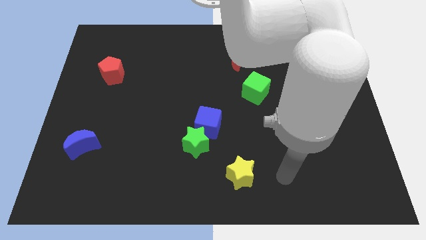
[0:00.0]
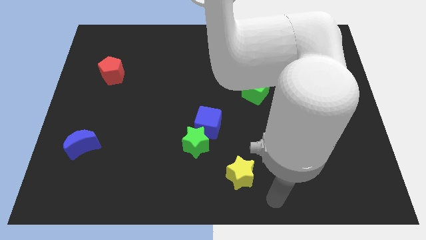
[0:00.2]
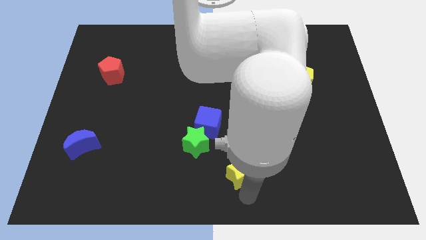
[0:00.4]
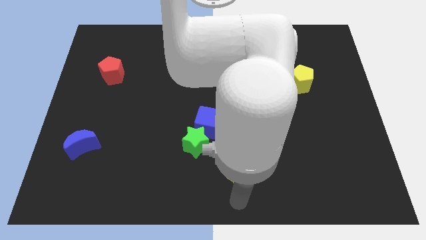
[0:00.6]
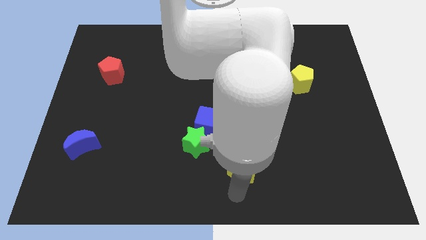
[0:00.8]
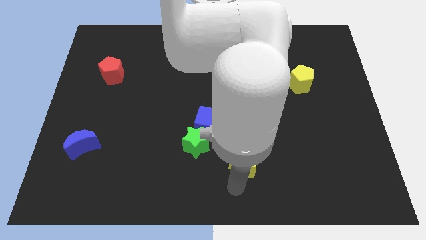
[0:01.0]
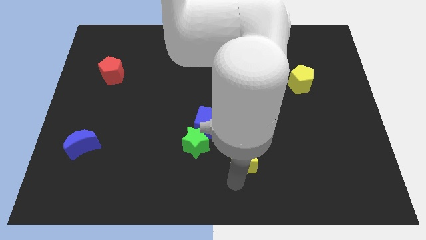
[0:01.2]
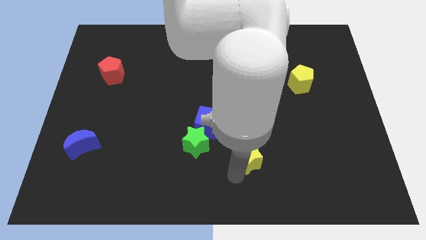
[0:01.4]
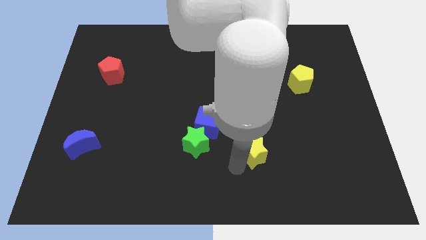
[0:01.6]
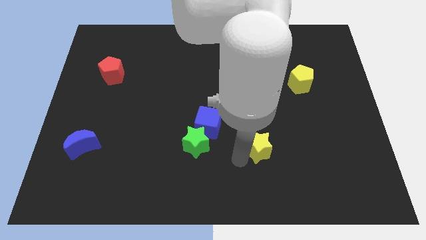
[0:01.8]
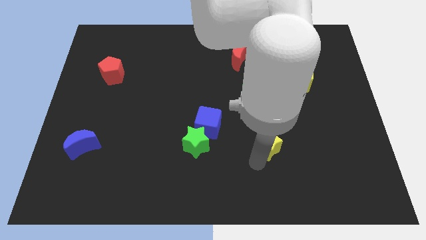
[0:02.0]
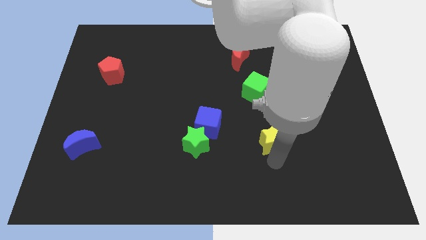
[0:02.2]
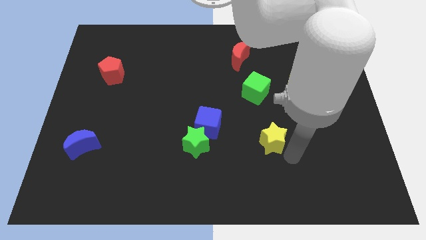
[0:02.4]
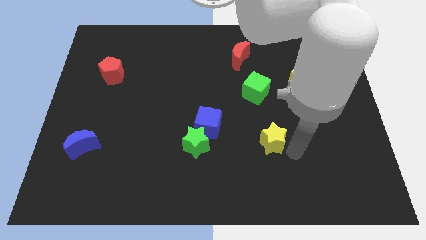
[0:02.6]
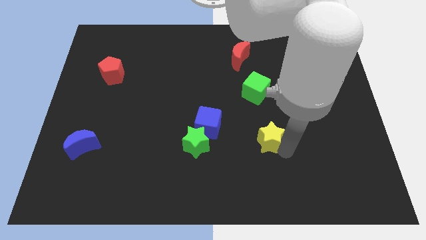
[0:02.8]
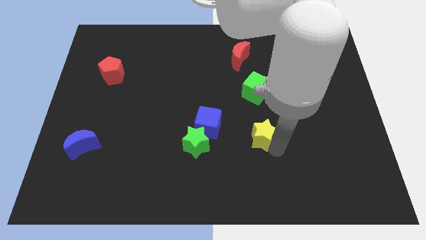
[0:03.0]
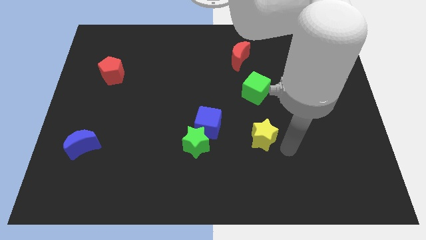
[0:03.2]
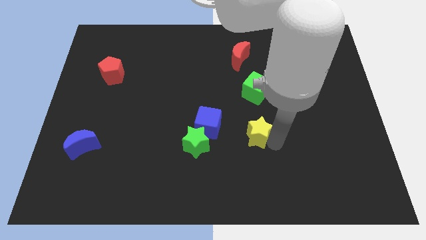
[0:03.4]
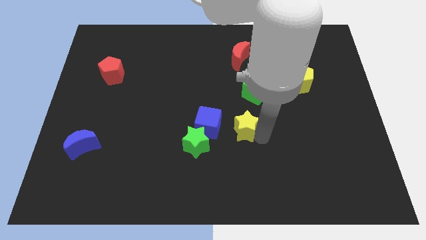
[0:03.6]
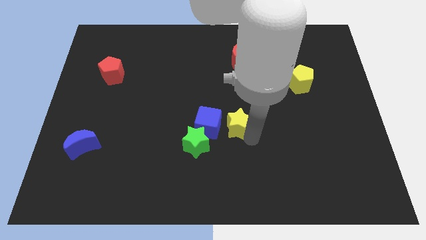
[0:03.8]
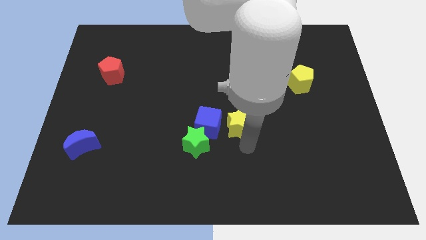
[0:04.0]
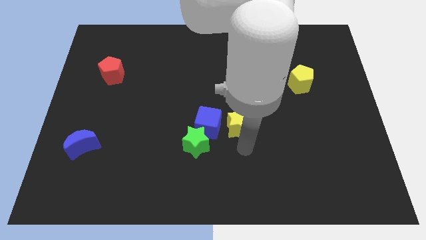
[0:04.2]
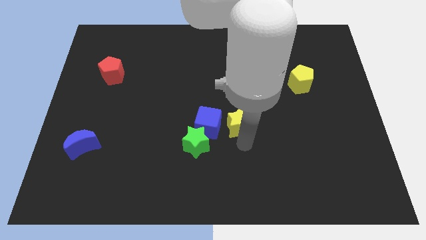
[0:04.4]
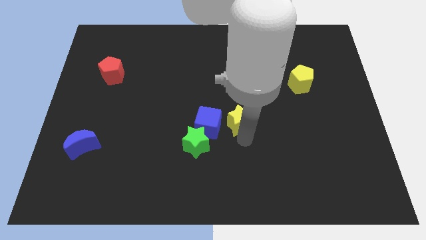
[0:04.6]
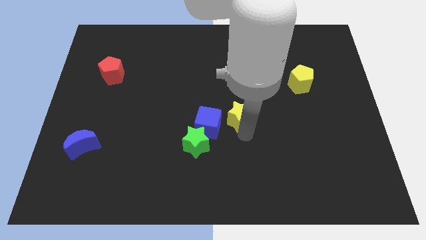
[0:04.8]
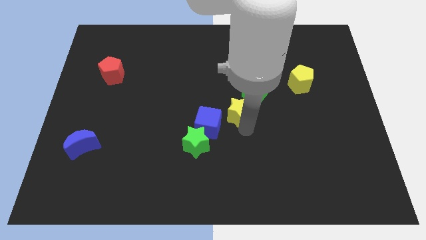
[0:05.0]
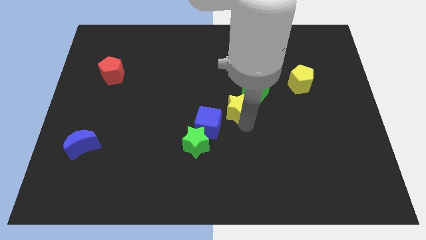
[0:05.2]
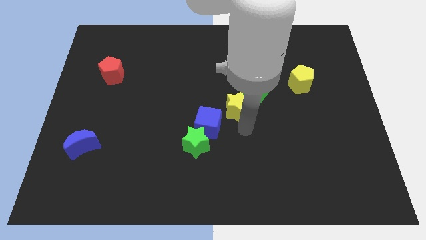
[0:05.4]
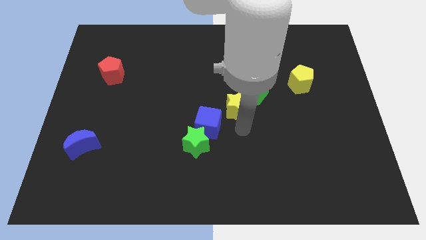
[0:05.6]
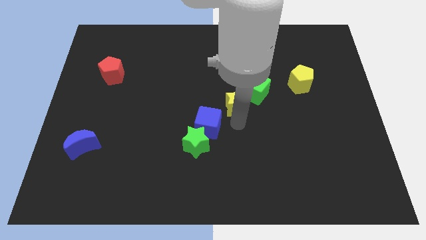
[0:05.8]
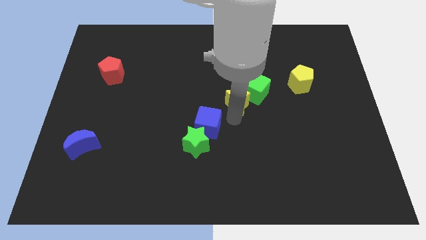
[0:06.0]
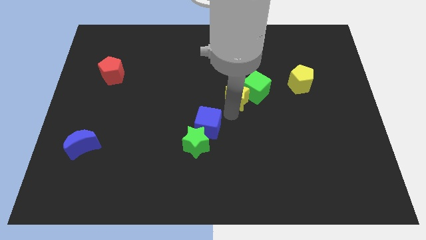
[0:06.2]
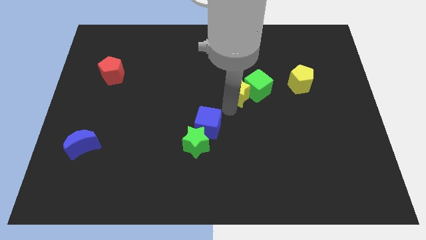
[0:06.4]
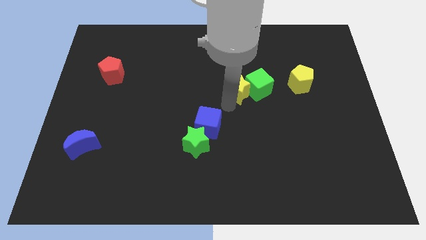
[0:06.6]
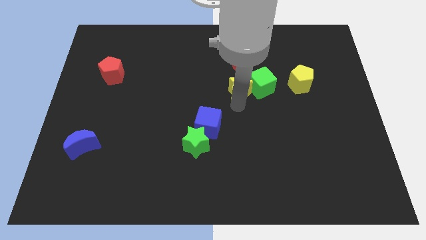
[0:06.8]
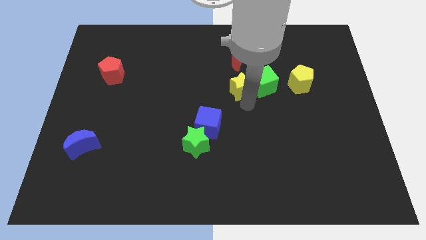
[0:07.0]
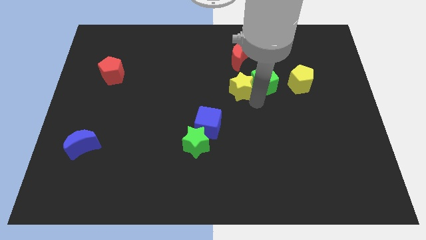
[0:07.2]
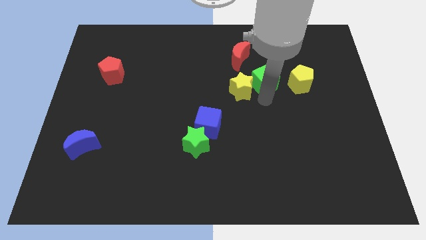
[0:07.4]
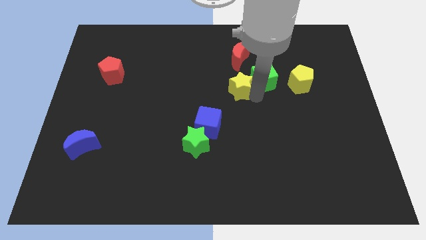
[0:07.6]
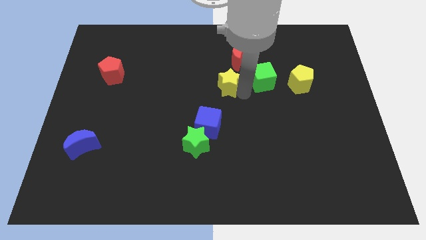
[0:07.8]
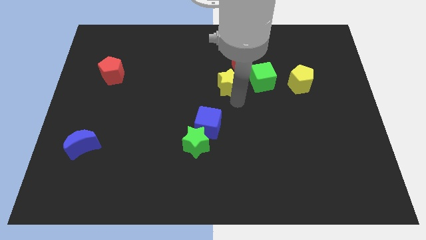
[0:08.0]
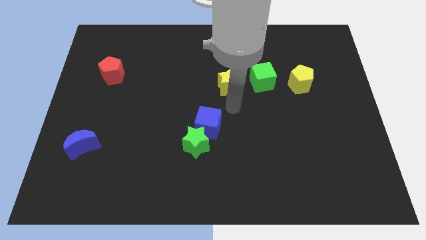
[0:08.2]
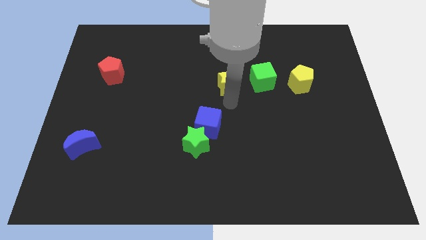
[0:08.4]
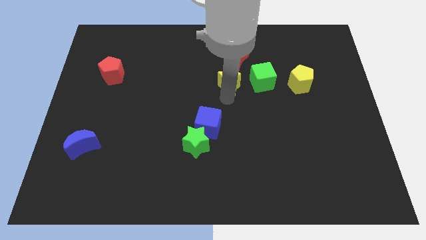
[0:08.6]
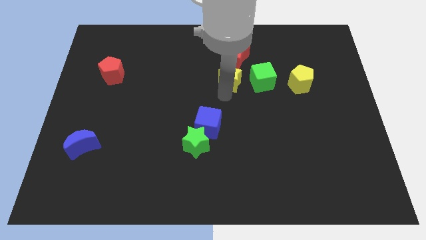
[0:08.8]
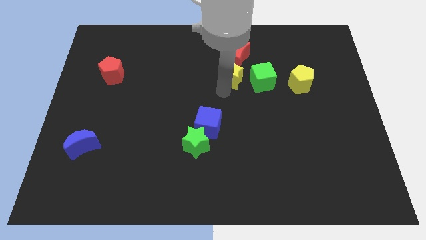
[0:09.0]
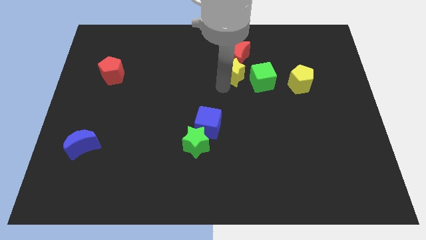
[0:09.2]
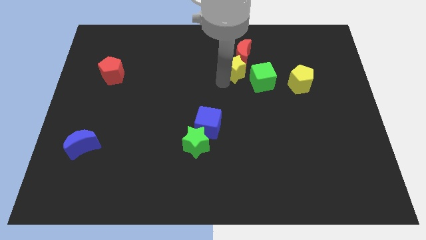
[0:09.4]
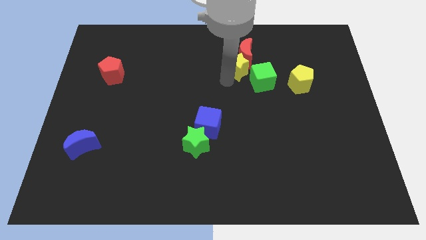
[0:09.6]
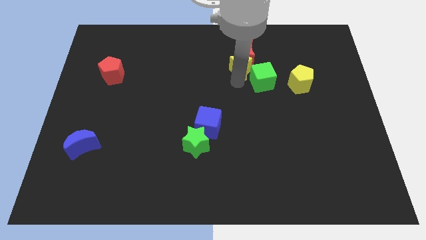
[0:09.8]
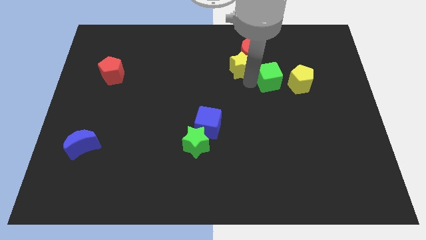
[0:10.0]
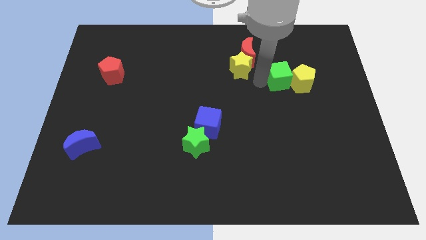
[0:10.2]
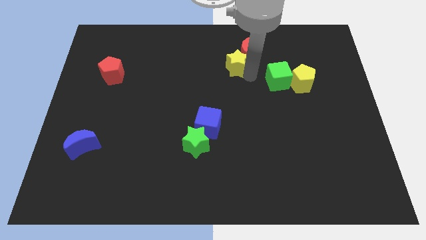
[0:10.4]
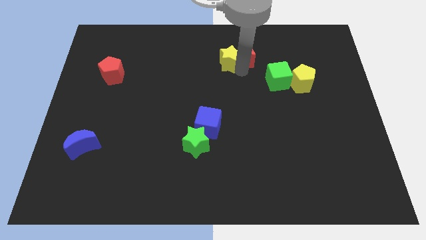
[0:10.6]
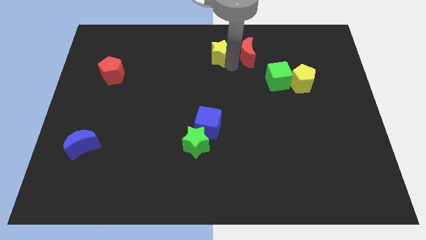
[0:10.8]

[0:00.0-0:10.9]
push the yellow star to the top

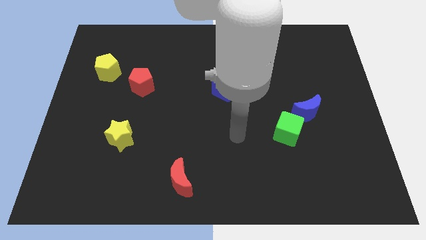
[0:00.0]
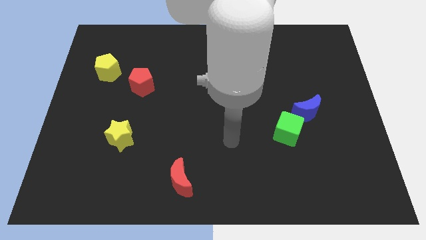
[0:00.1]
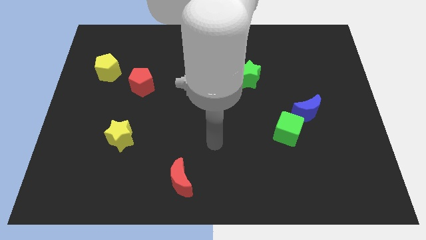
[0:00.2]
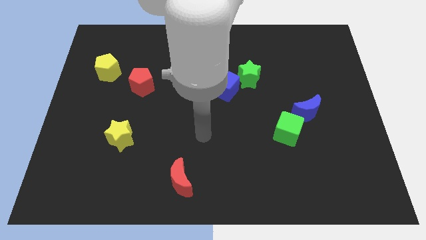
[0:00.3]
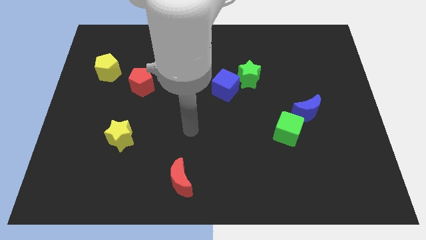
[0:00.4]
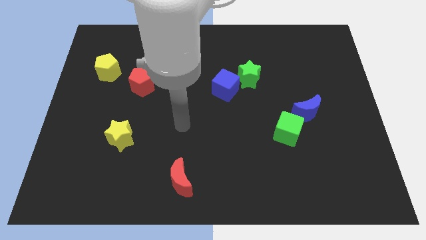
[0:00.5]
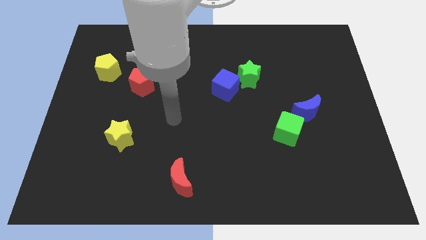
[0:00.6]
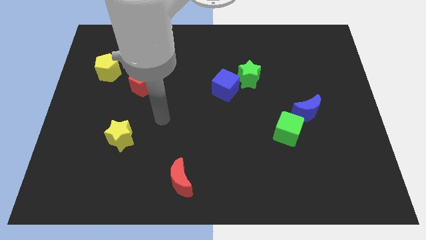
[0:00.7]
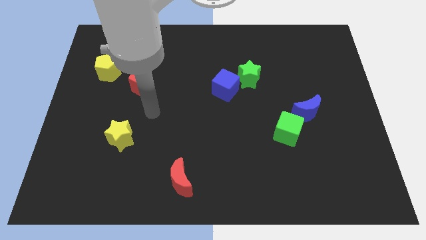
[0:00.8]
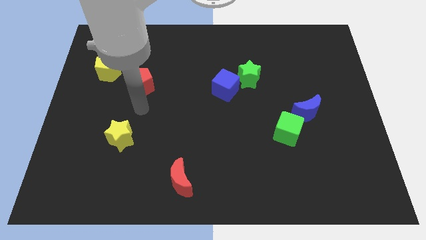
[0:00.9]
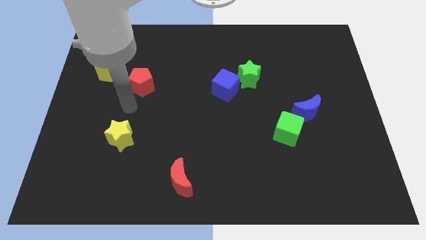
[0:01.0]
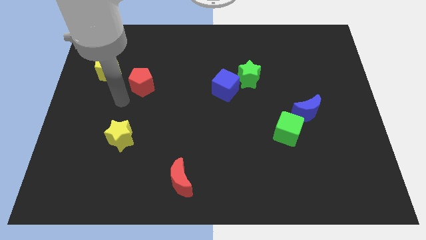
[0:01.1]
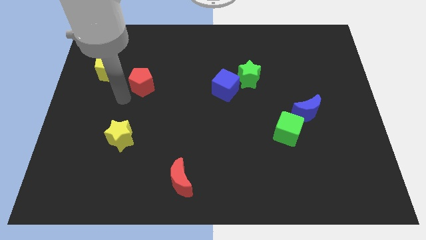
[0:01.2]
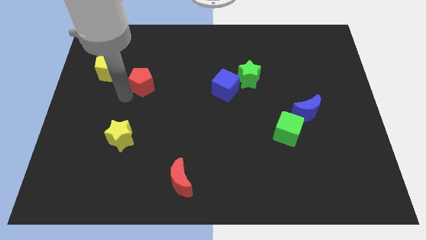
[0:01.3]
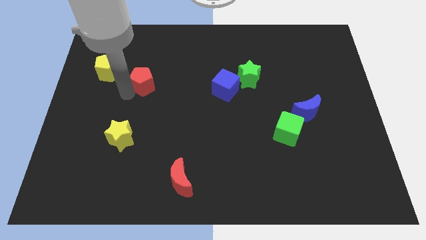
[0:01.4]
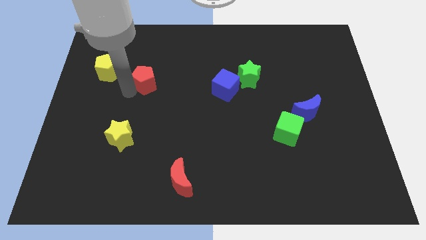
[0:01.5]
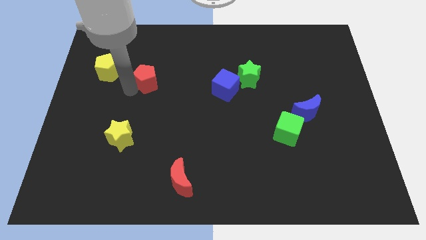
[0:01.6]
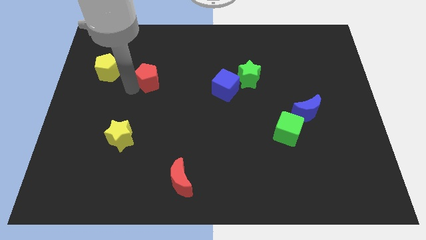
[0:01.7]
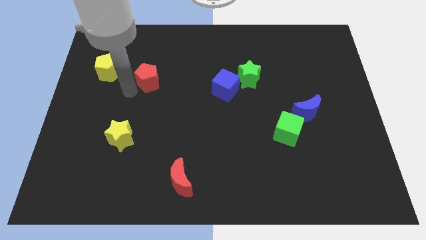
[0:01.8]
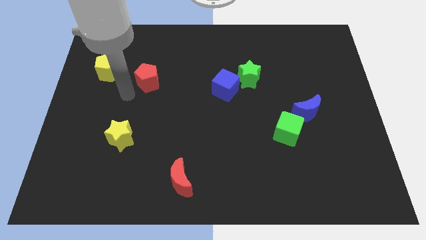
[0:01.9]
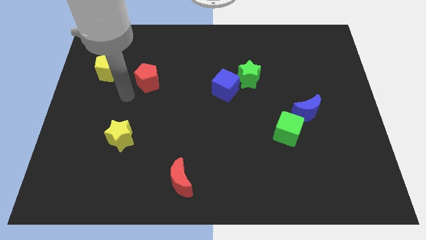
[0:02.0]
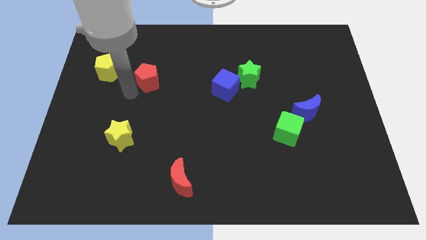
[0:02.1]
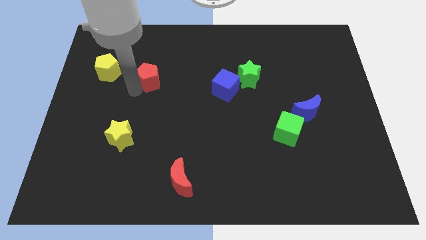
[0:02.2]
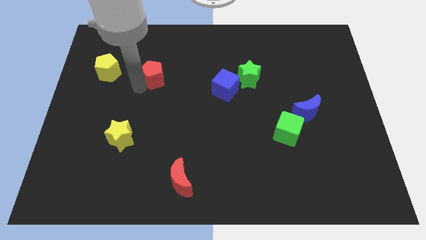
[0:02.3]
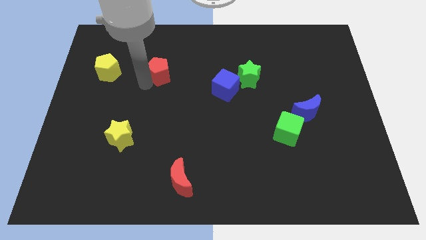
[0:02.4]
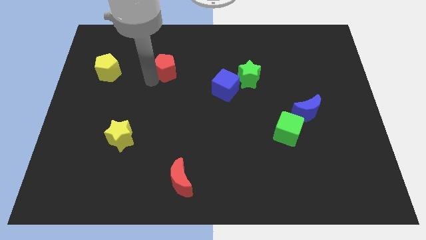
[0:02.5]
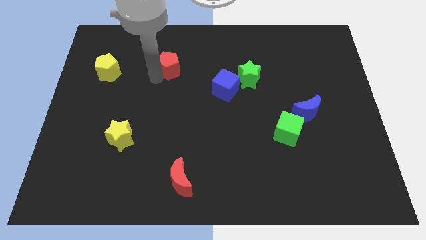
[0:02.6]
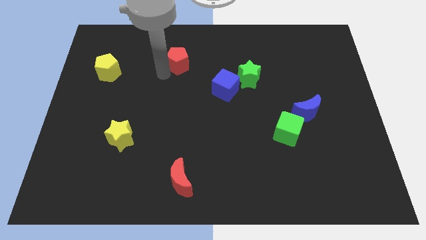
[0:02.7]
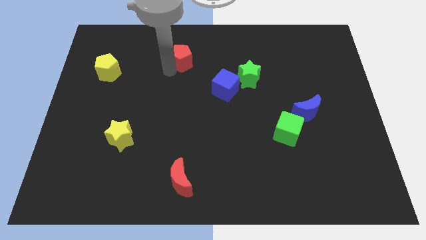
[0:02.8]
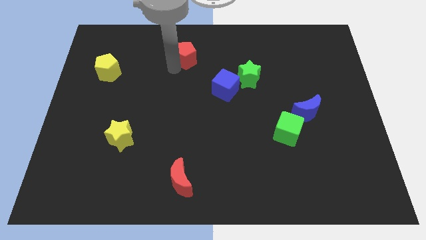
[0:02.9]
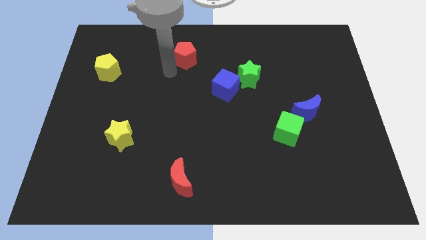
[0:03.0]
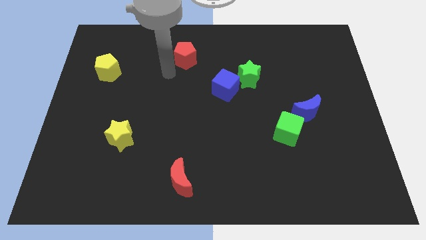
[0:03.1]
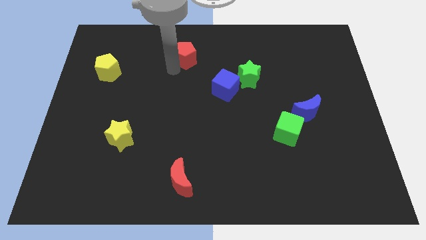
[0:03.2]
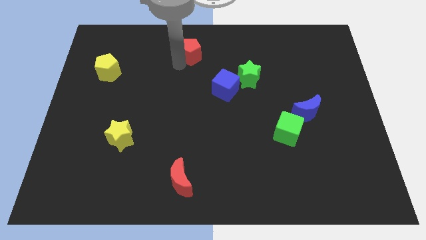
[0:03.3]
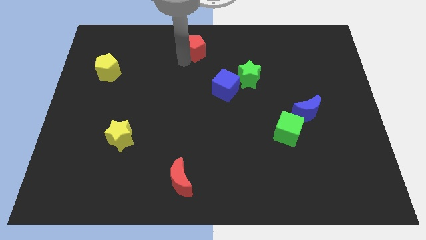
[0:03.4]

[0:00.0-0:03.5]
push the red pentagon to the top
